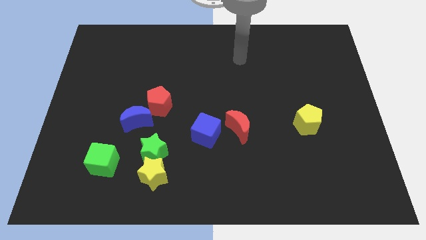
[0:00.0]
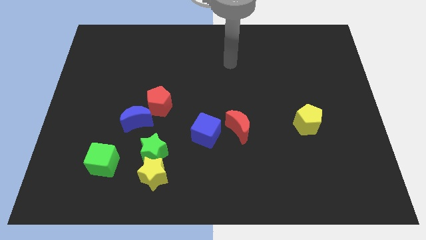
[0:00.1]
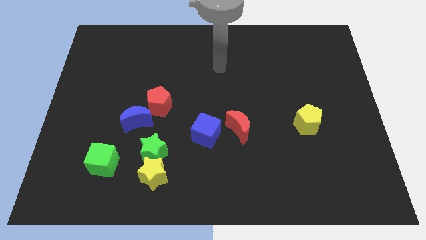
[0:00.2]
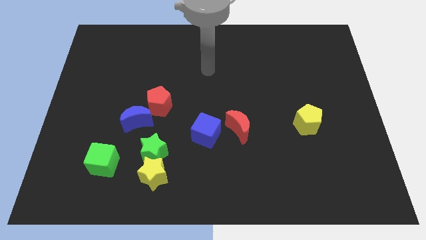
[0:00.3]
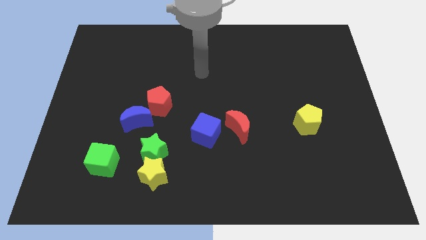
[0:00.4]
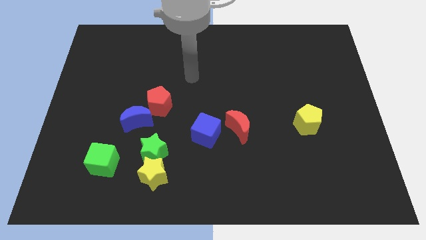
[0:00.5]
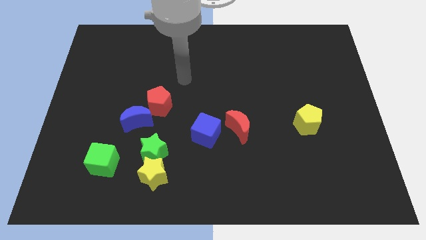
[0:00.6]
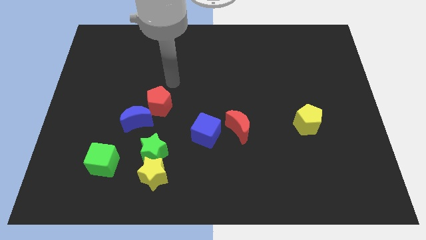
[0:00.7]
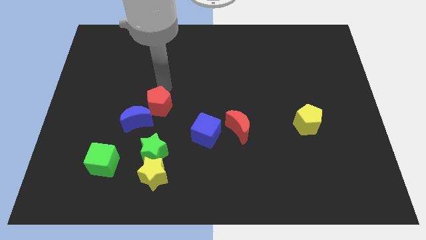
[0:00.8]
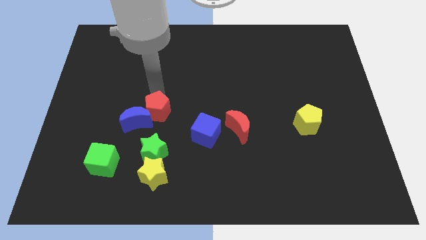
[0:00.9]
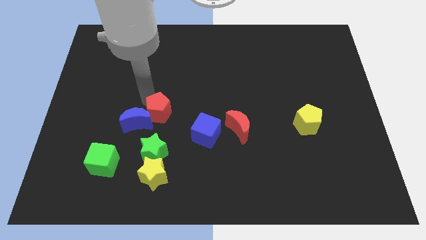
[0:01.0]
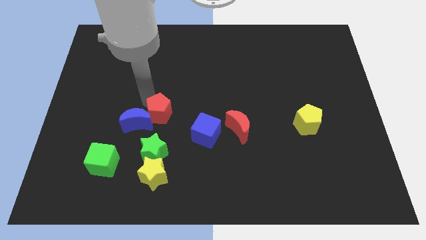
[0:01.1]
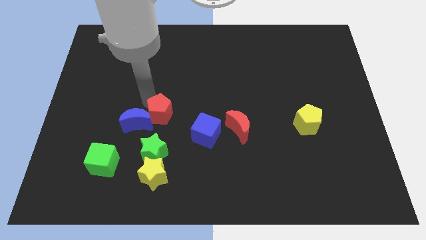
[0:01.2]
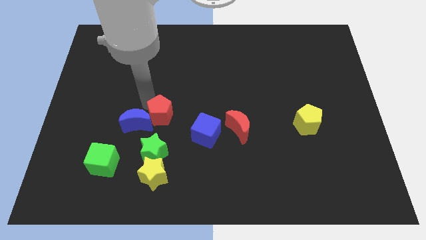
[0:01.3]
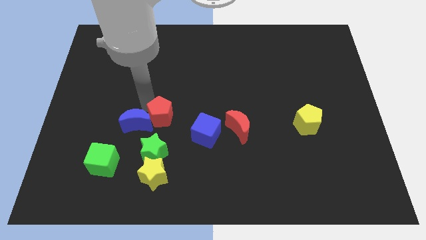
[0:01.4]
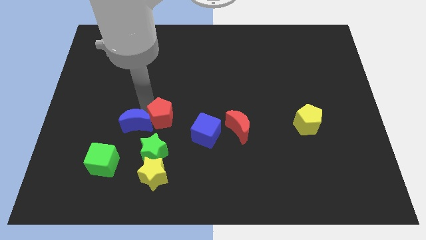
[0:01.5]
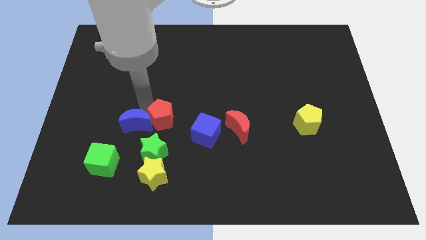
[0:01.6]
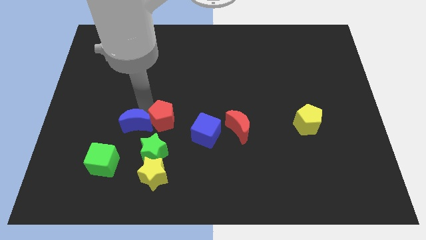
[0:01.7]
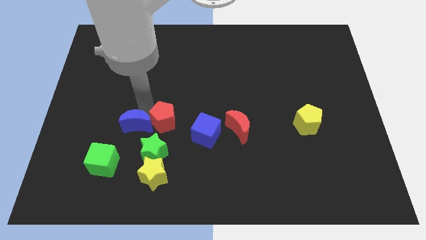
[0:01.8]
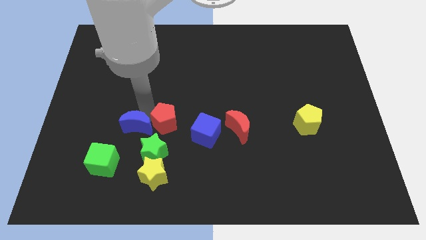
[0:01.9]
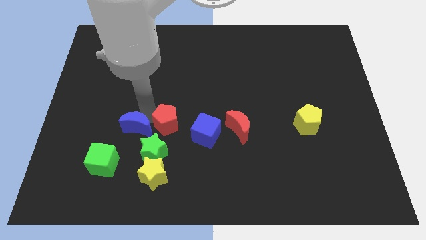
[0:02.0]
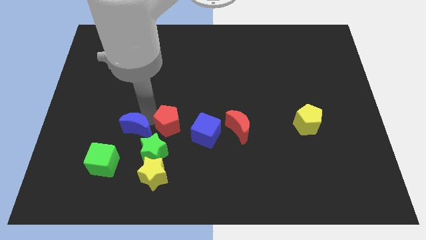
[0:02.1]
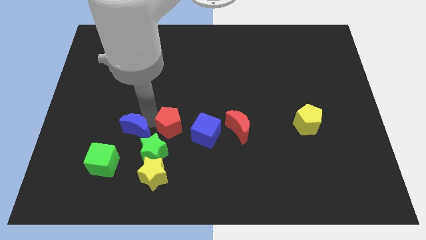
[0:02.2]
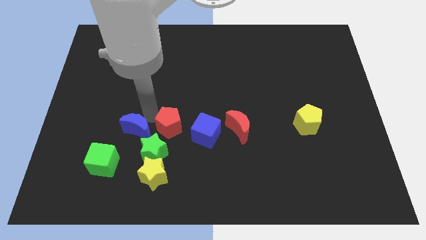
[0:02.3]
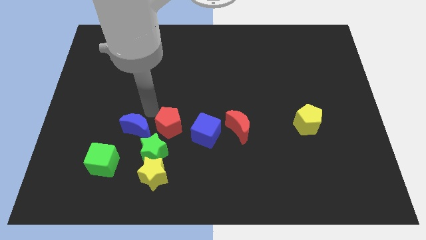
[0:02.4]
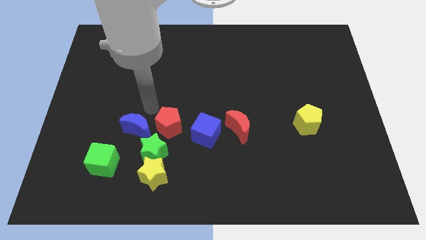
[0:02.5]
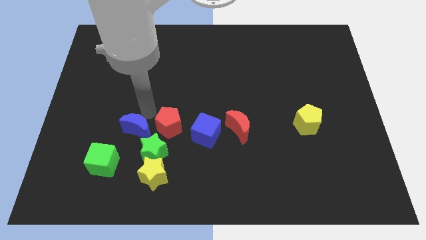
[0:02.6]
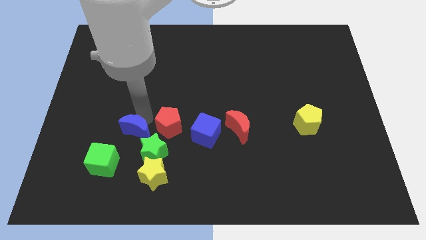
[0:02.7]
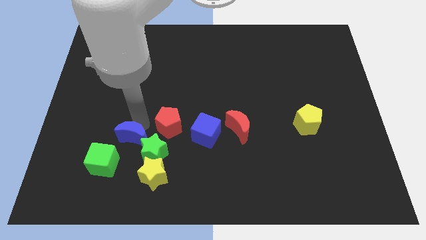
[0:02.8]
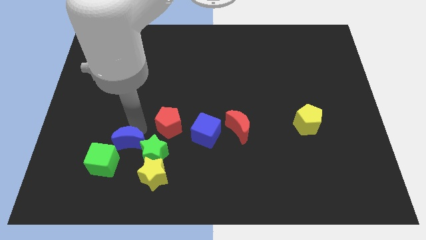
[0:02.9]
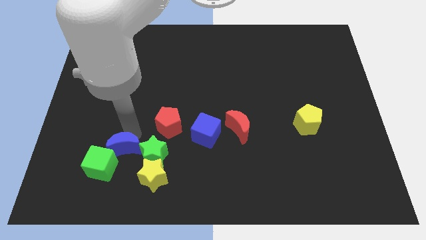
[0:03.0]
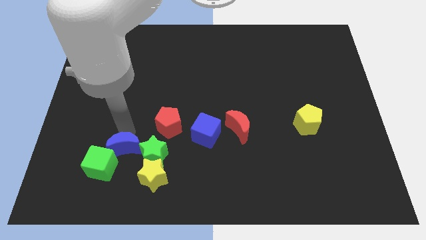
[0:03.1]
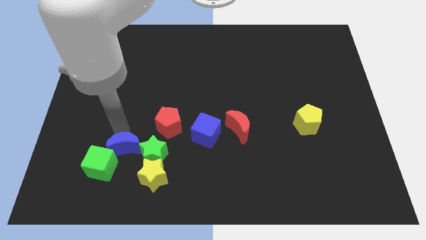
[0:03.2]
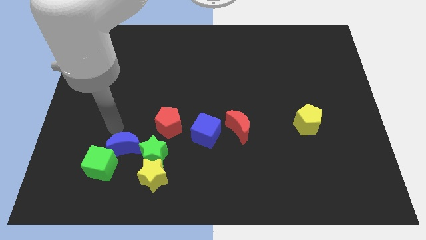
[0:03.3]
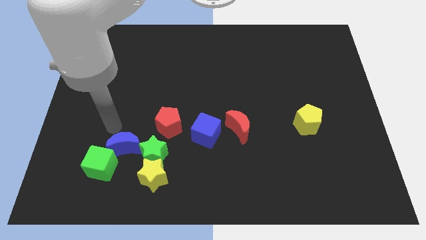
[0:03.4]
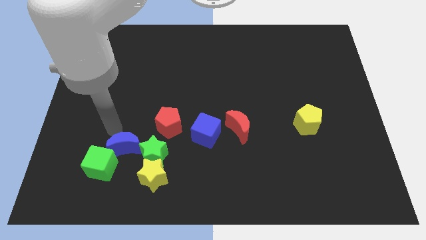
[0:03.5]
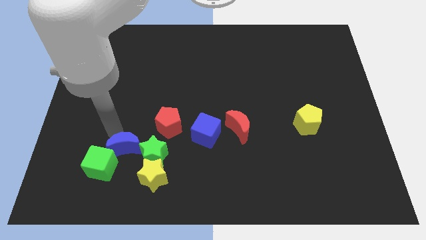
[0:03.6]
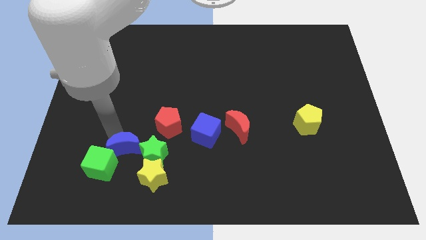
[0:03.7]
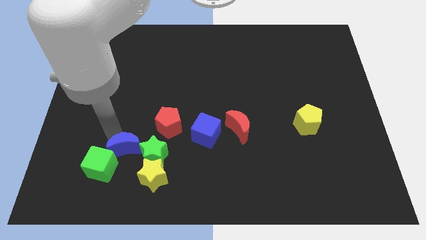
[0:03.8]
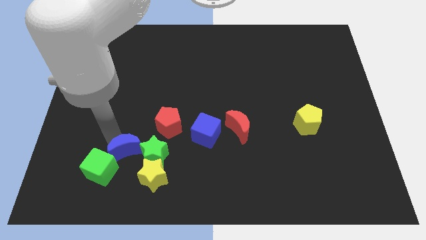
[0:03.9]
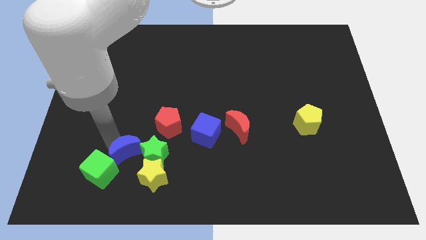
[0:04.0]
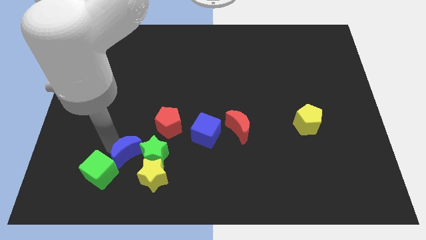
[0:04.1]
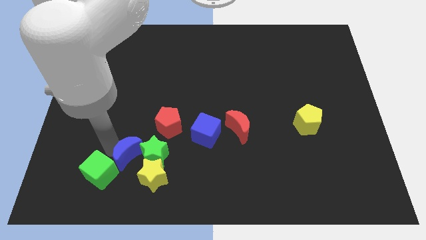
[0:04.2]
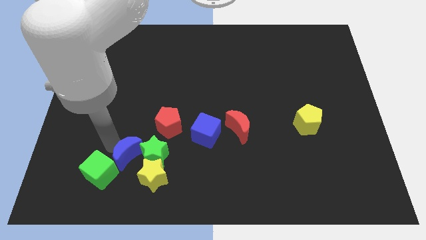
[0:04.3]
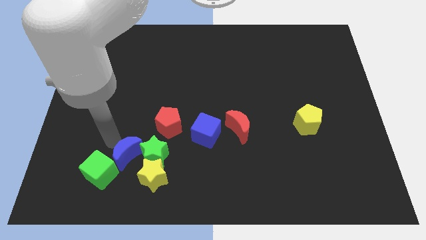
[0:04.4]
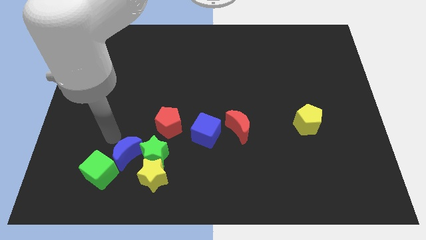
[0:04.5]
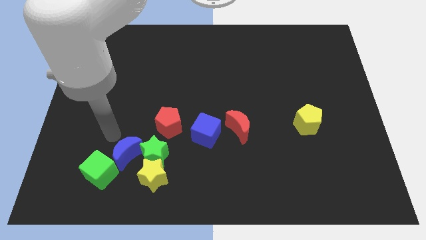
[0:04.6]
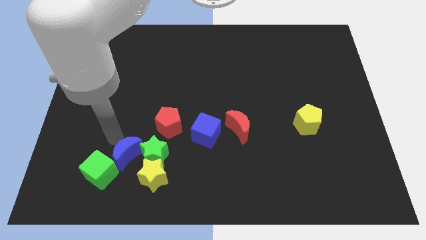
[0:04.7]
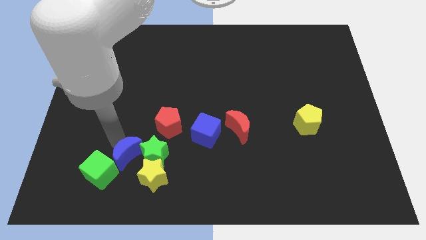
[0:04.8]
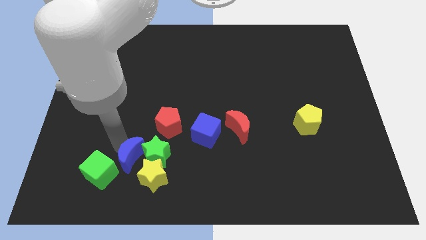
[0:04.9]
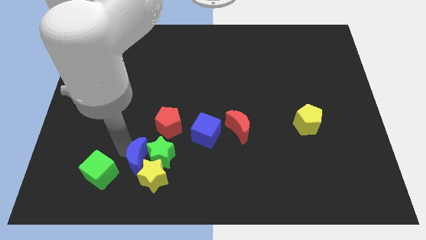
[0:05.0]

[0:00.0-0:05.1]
slide the blue moon close to the yellow star

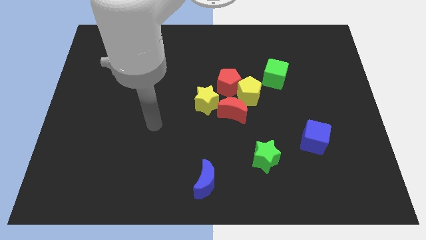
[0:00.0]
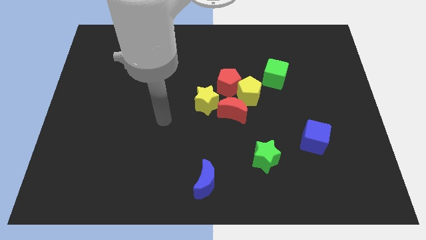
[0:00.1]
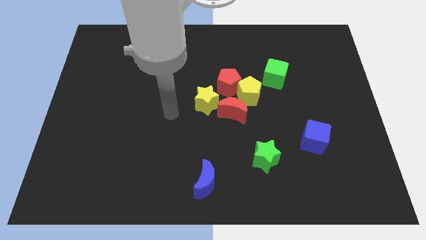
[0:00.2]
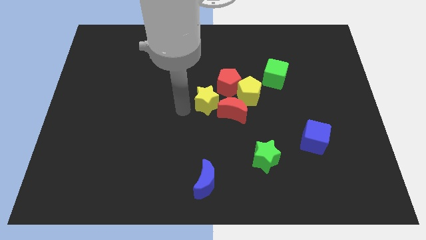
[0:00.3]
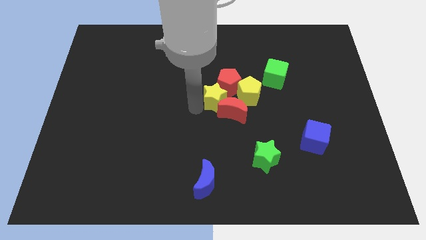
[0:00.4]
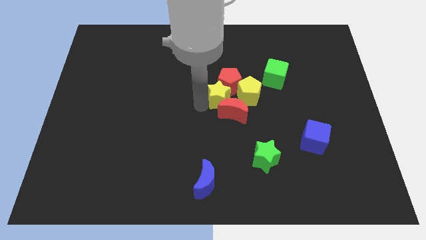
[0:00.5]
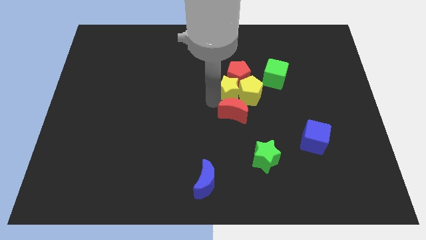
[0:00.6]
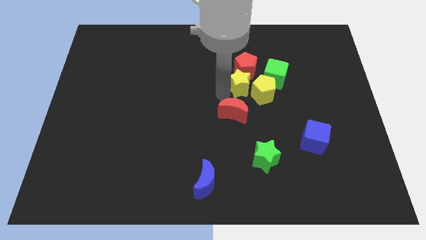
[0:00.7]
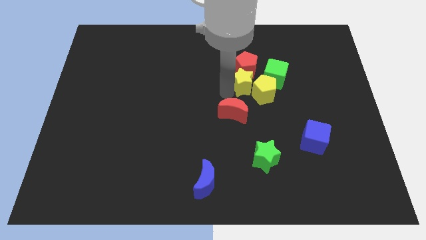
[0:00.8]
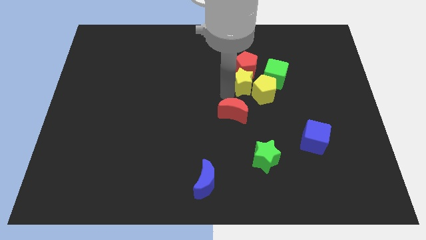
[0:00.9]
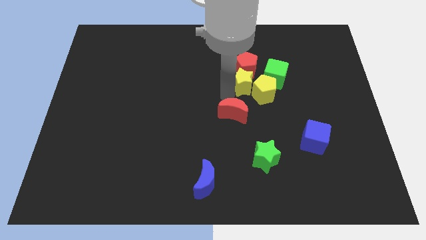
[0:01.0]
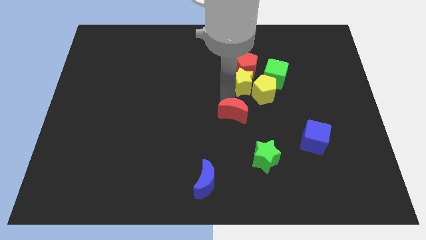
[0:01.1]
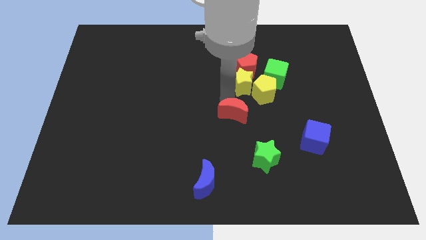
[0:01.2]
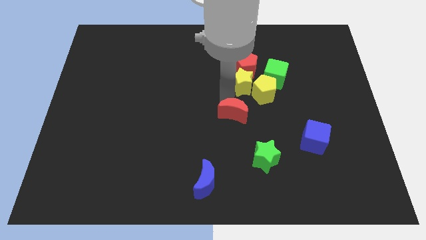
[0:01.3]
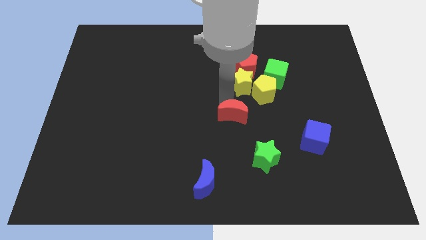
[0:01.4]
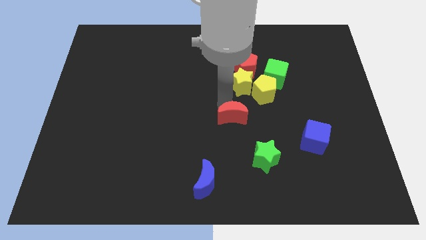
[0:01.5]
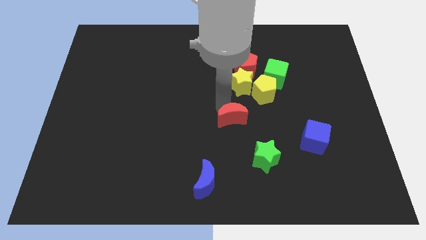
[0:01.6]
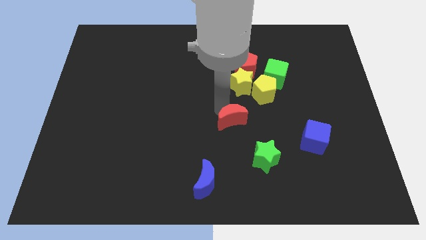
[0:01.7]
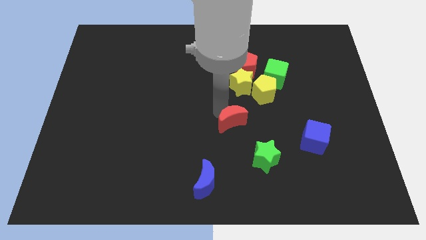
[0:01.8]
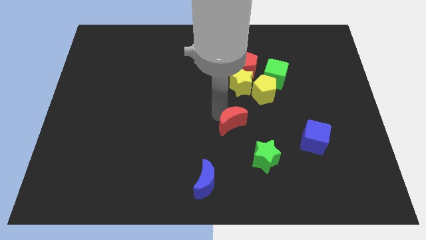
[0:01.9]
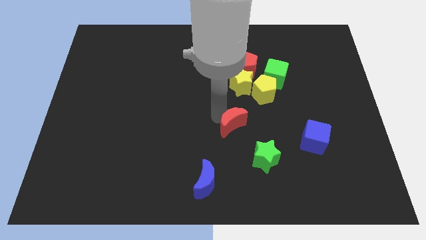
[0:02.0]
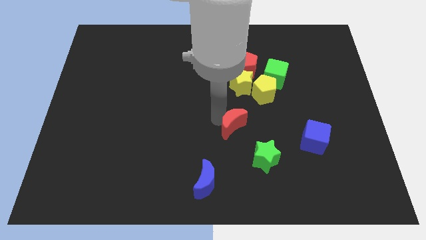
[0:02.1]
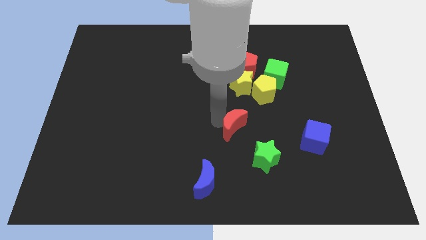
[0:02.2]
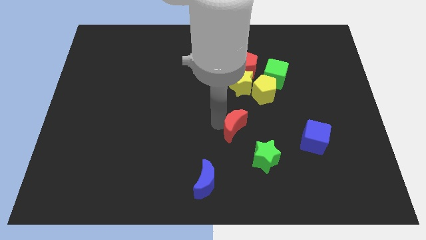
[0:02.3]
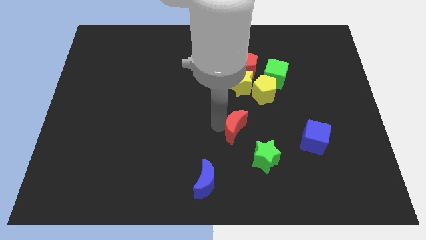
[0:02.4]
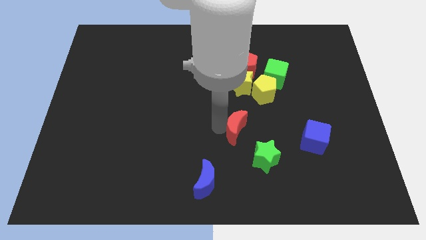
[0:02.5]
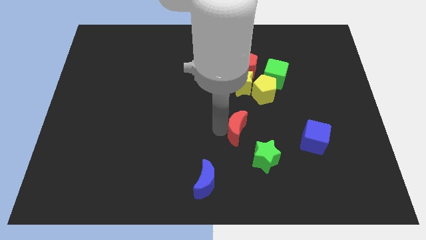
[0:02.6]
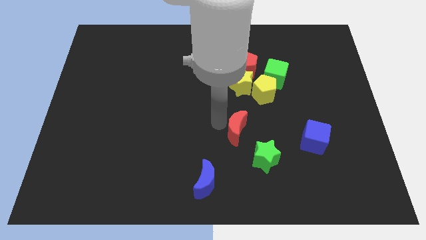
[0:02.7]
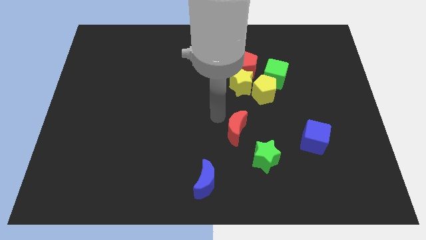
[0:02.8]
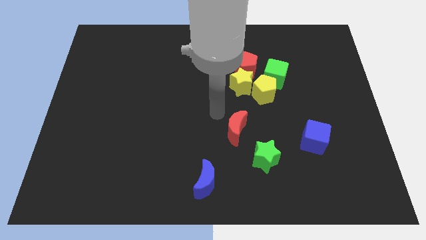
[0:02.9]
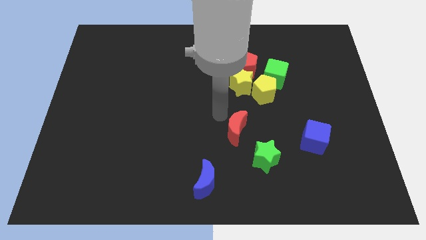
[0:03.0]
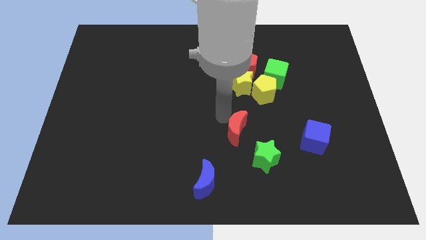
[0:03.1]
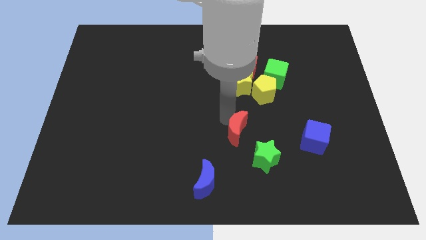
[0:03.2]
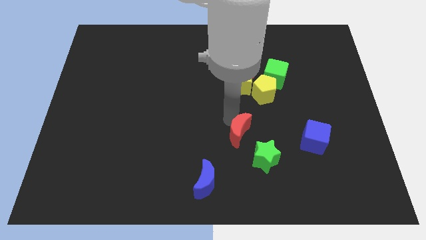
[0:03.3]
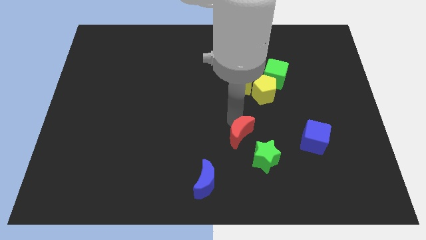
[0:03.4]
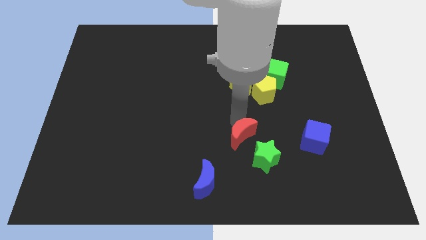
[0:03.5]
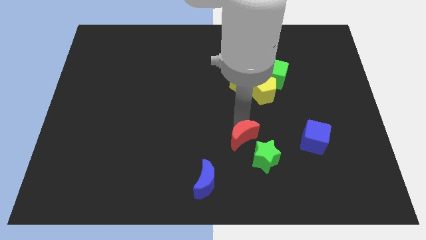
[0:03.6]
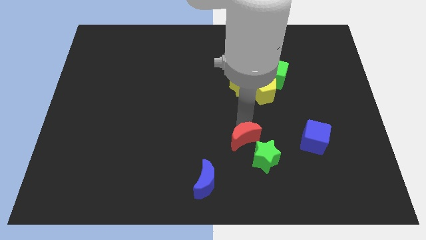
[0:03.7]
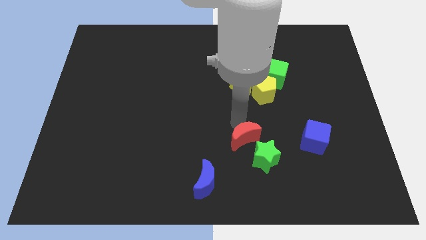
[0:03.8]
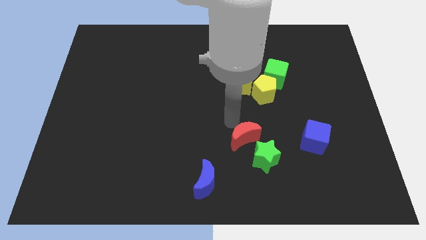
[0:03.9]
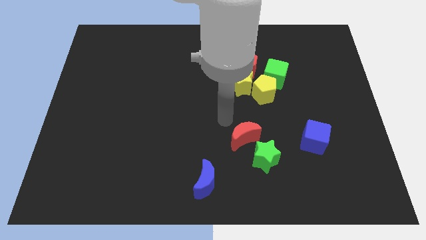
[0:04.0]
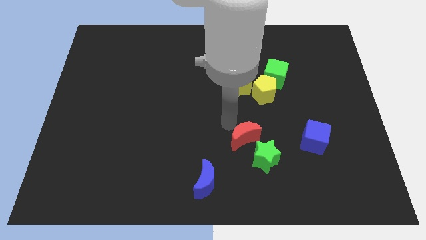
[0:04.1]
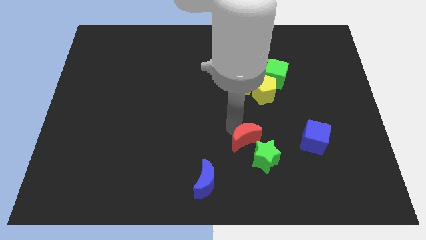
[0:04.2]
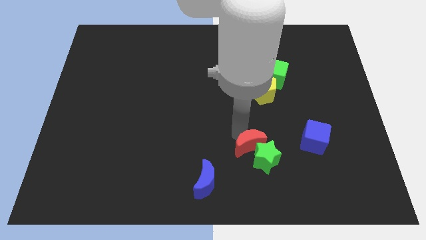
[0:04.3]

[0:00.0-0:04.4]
slide the red moon next to the green star
